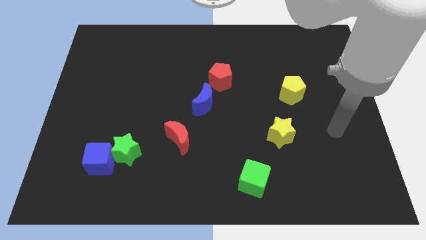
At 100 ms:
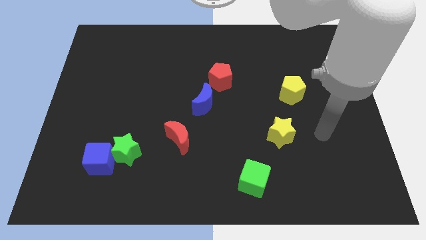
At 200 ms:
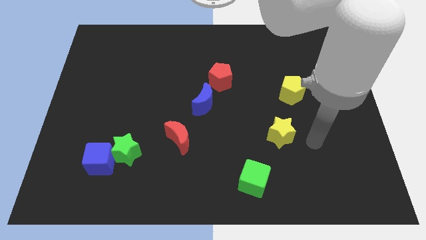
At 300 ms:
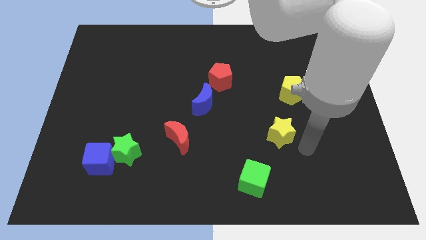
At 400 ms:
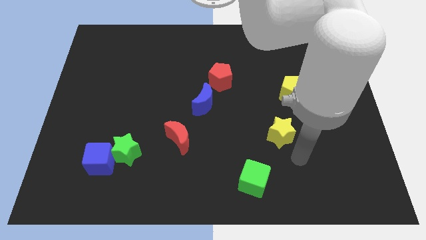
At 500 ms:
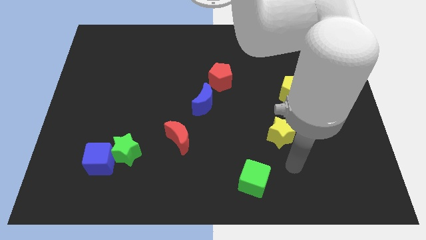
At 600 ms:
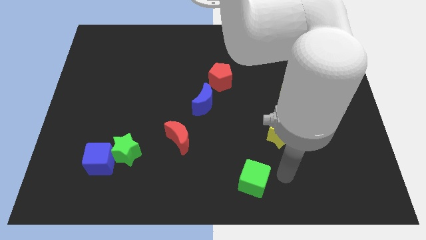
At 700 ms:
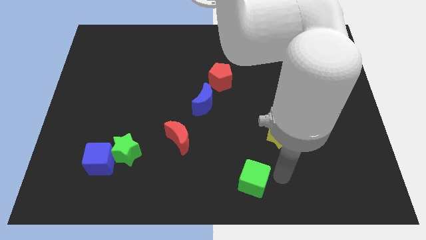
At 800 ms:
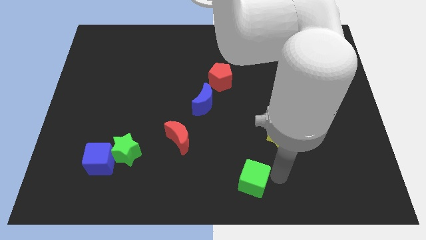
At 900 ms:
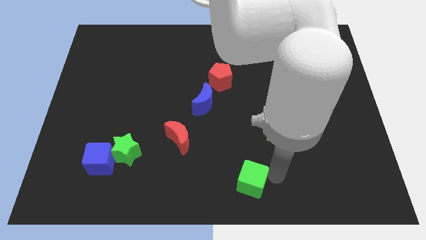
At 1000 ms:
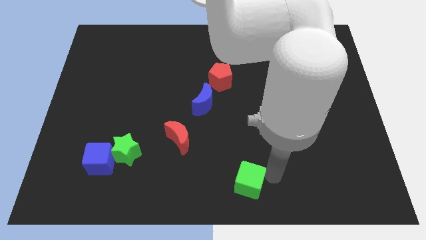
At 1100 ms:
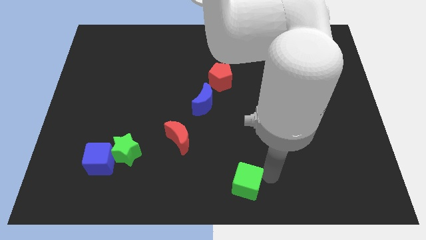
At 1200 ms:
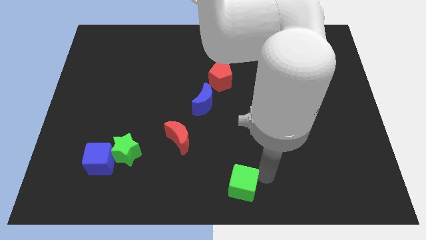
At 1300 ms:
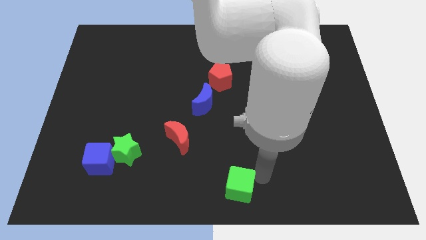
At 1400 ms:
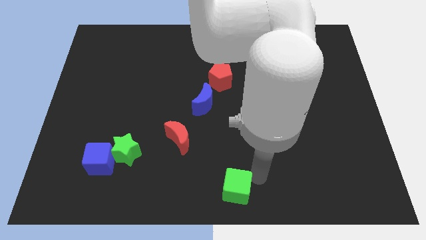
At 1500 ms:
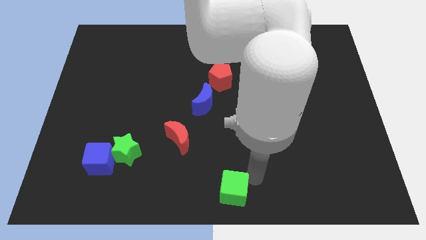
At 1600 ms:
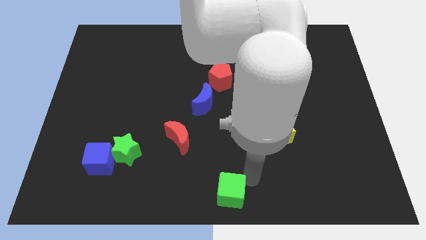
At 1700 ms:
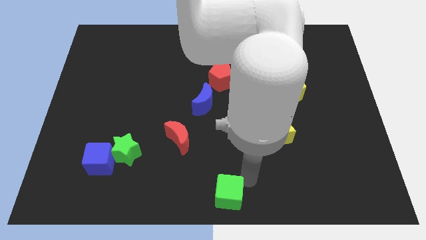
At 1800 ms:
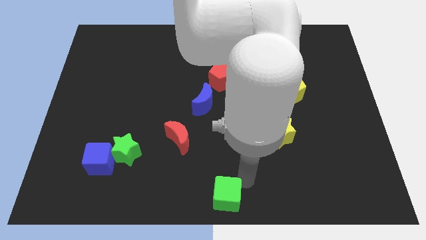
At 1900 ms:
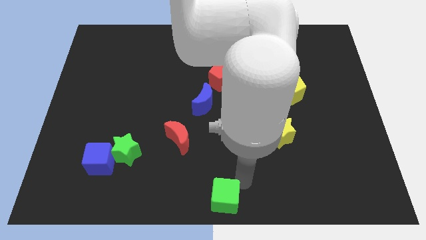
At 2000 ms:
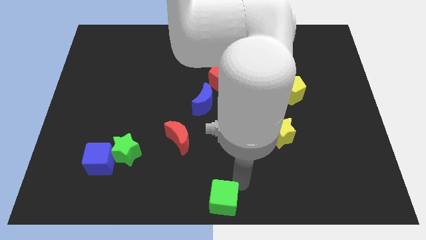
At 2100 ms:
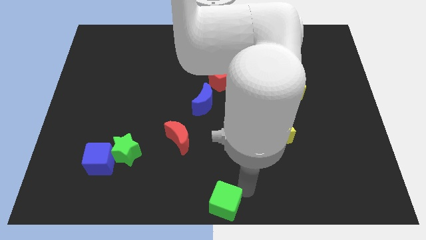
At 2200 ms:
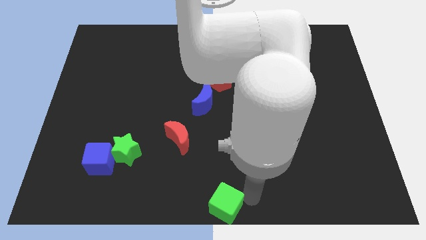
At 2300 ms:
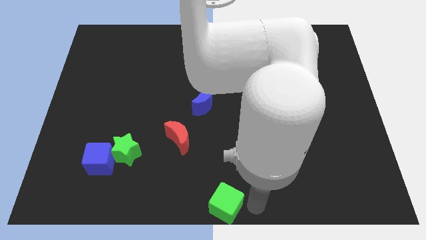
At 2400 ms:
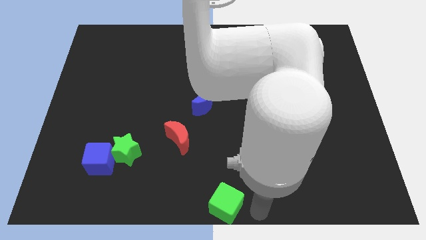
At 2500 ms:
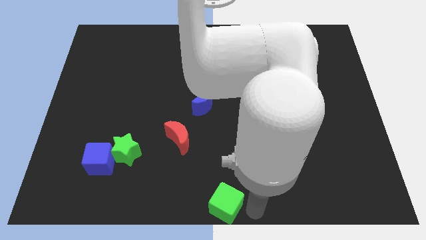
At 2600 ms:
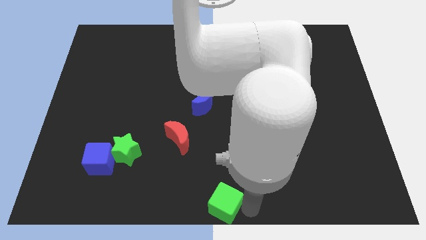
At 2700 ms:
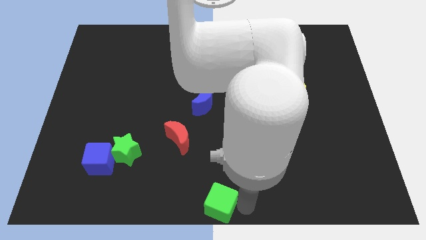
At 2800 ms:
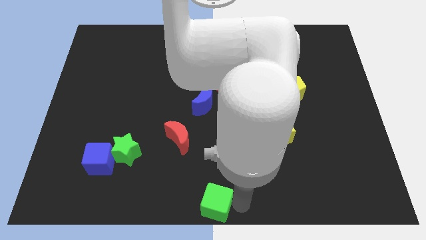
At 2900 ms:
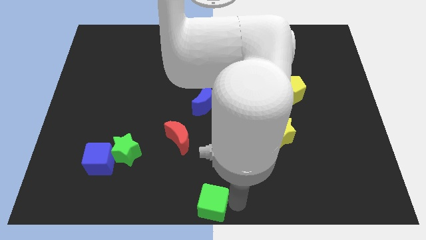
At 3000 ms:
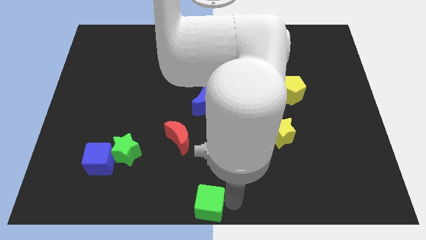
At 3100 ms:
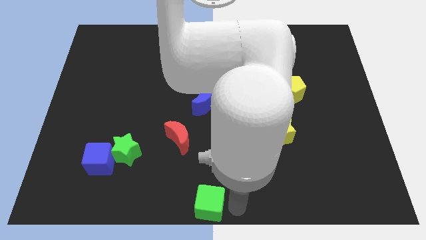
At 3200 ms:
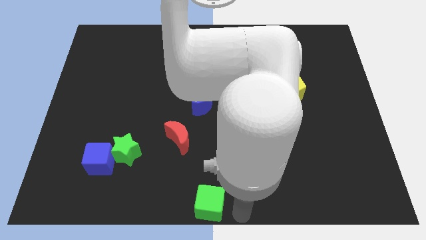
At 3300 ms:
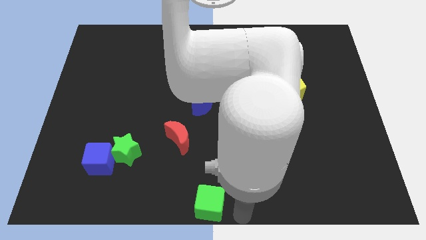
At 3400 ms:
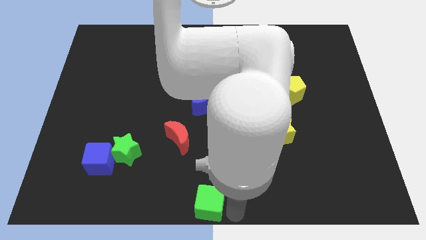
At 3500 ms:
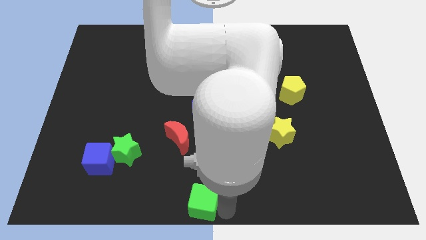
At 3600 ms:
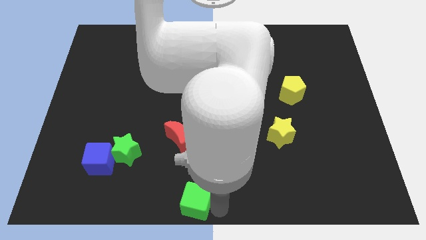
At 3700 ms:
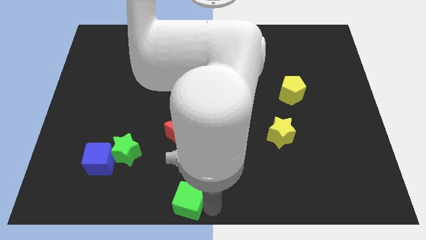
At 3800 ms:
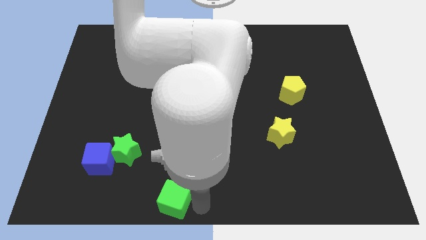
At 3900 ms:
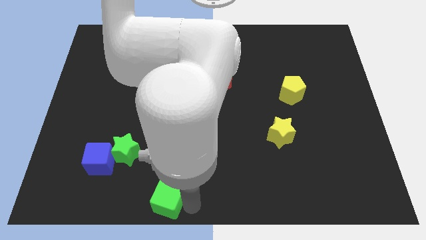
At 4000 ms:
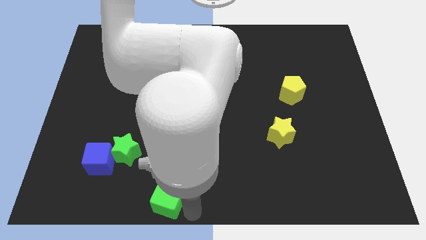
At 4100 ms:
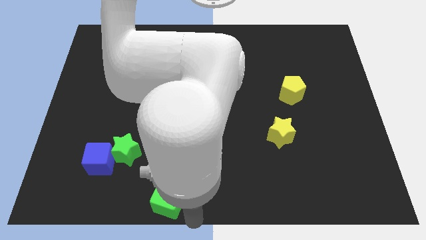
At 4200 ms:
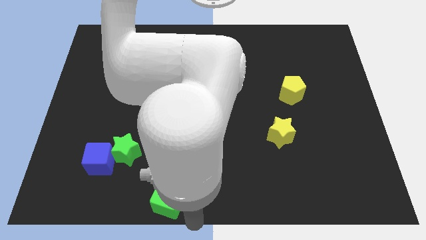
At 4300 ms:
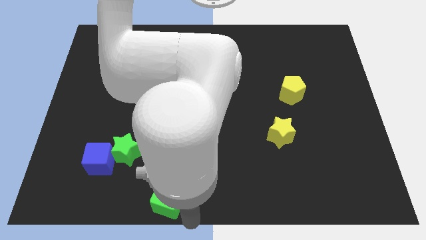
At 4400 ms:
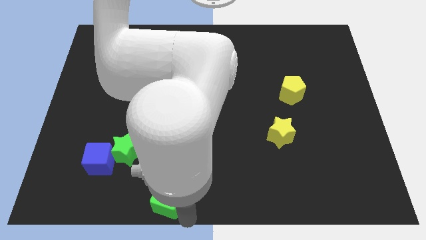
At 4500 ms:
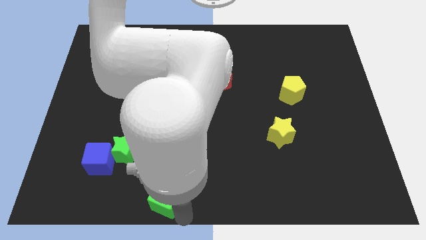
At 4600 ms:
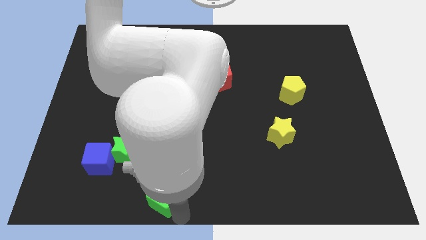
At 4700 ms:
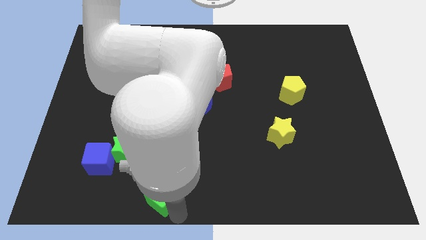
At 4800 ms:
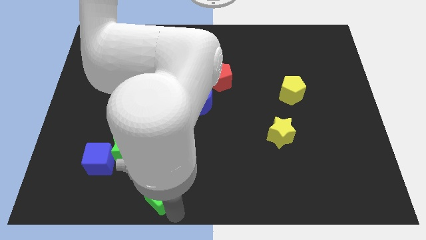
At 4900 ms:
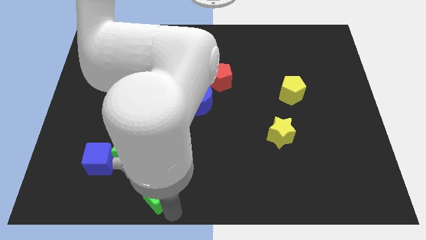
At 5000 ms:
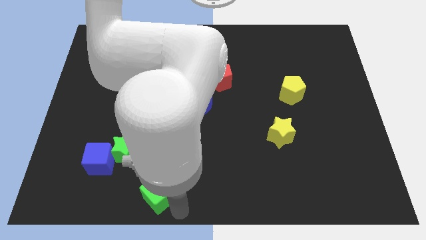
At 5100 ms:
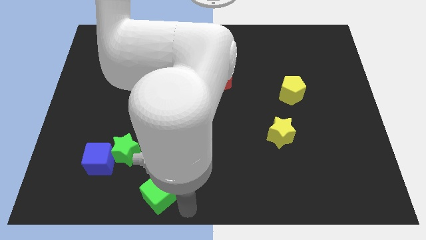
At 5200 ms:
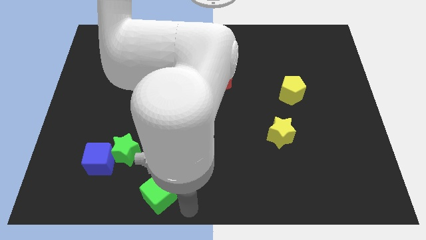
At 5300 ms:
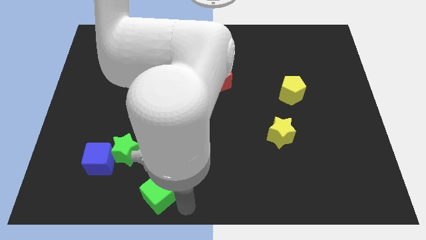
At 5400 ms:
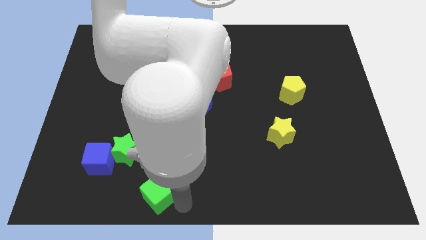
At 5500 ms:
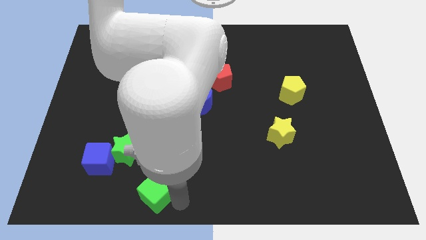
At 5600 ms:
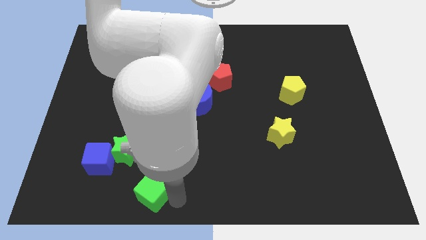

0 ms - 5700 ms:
move the green cube left

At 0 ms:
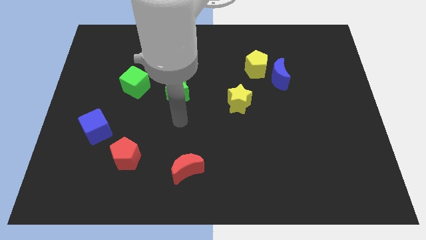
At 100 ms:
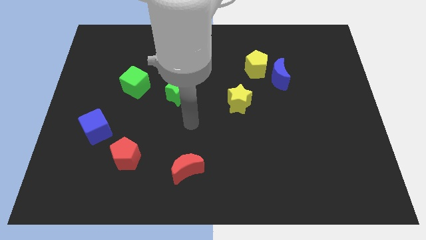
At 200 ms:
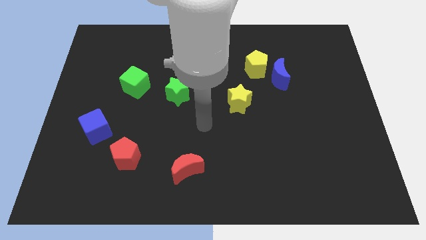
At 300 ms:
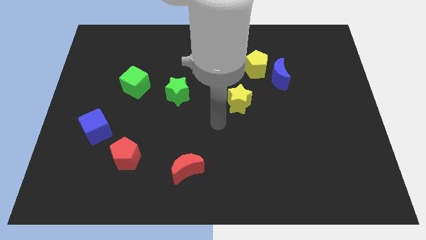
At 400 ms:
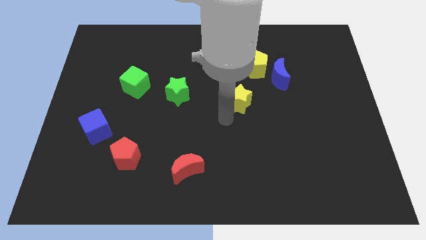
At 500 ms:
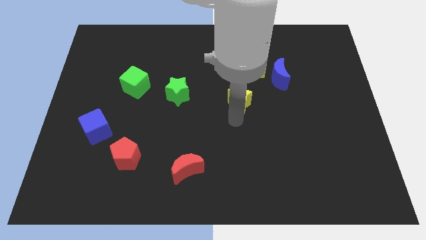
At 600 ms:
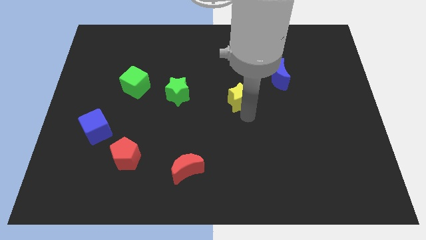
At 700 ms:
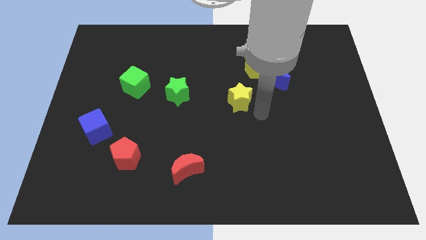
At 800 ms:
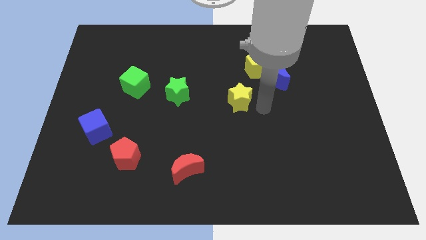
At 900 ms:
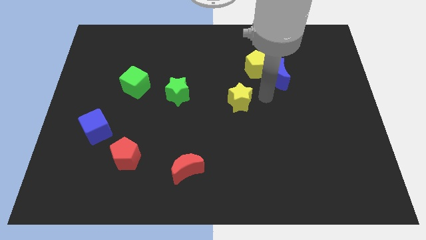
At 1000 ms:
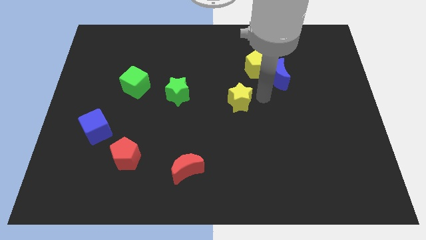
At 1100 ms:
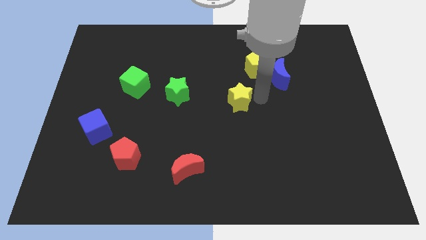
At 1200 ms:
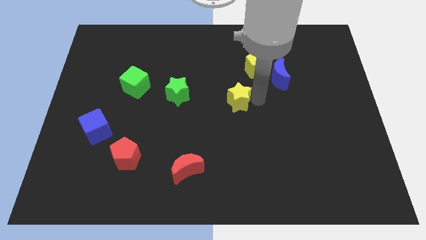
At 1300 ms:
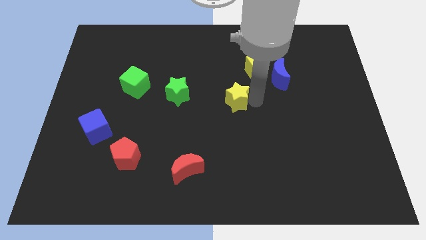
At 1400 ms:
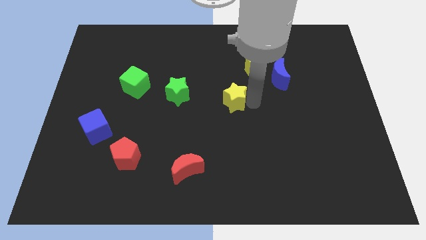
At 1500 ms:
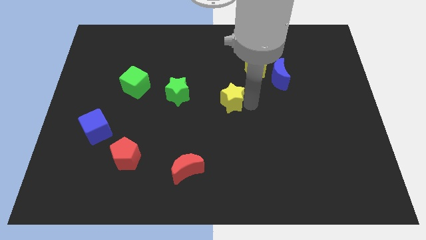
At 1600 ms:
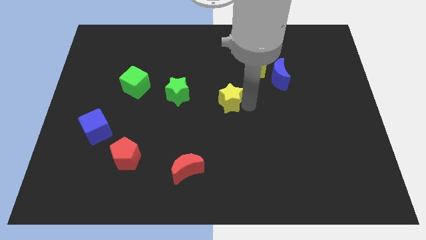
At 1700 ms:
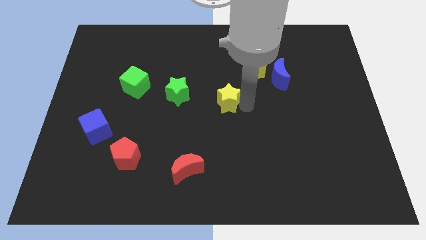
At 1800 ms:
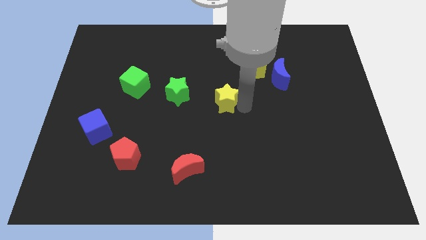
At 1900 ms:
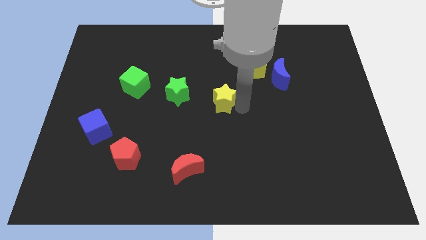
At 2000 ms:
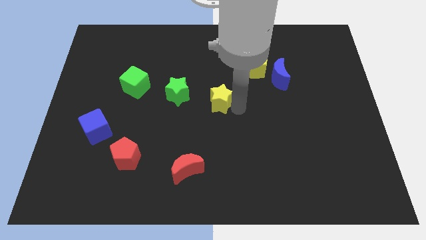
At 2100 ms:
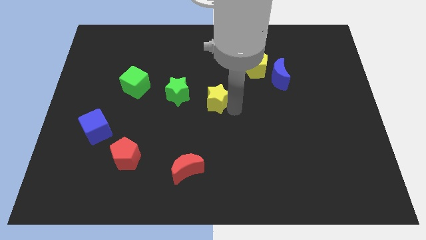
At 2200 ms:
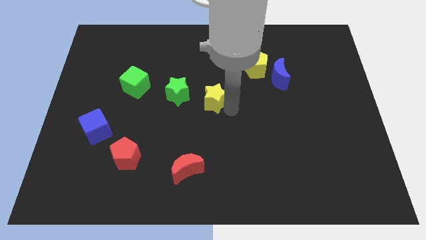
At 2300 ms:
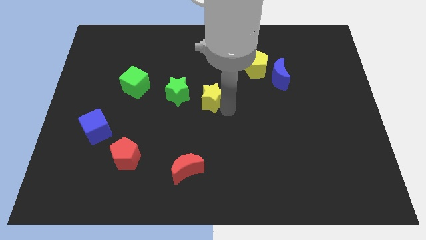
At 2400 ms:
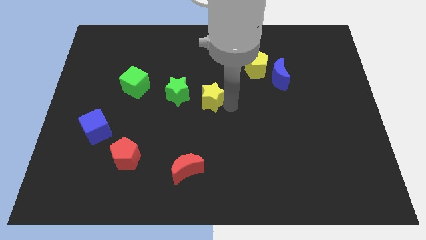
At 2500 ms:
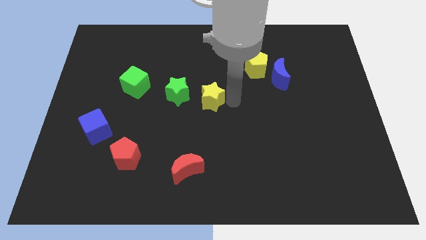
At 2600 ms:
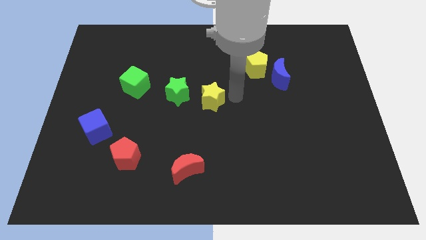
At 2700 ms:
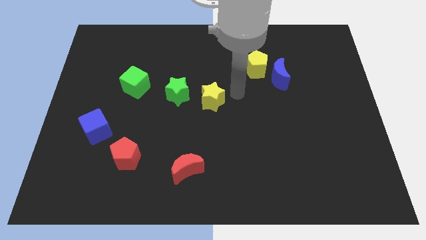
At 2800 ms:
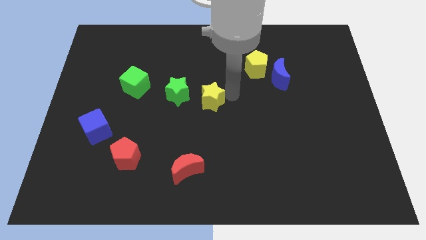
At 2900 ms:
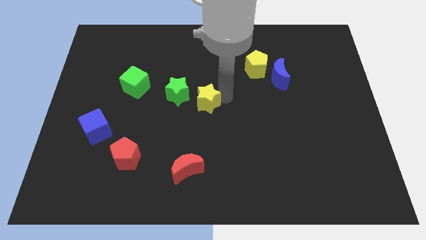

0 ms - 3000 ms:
slightly push the yellow star left
